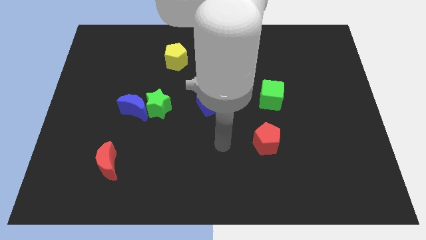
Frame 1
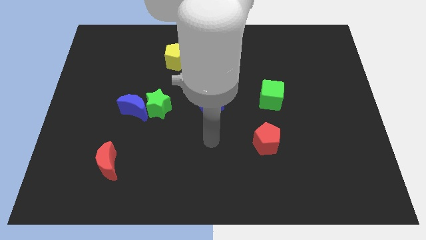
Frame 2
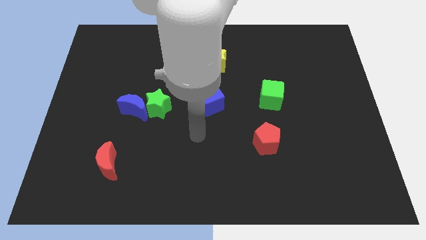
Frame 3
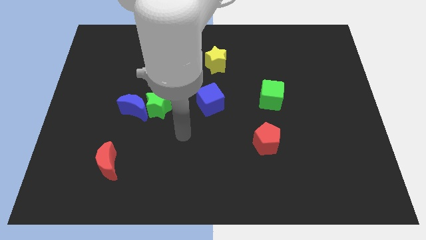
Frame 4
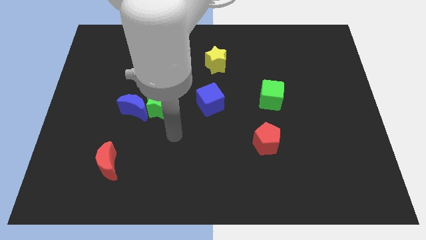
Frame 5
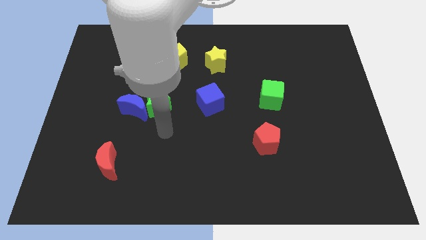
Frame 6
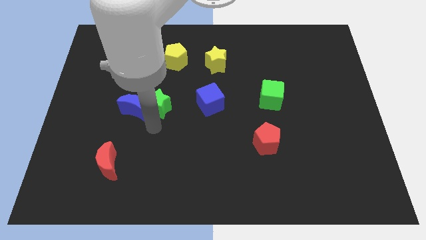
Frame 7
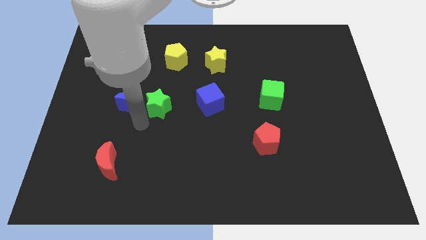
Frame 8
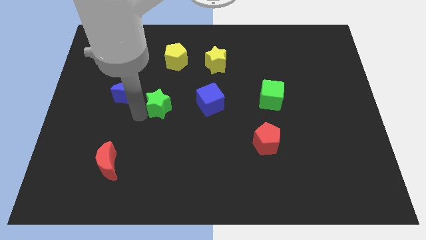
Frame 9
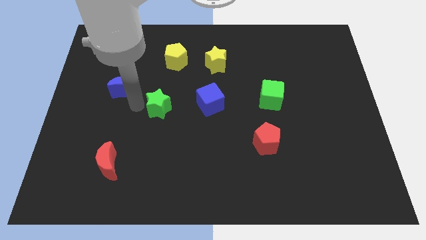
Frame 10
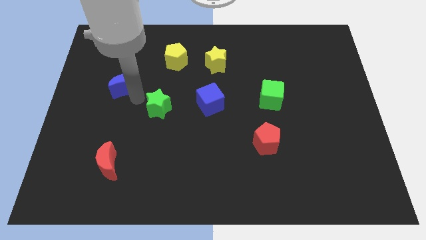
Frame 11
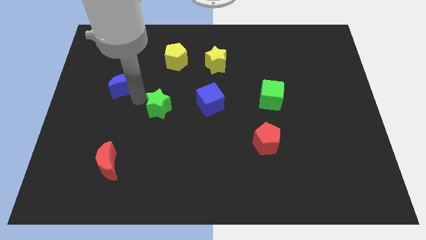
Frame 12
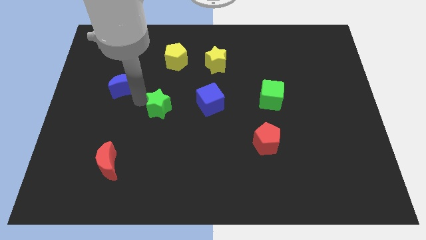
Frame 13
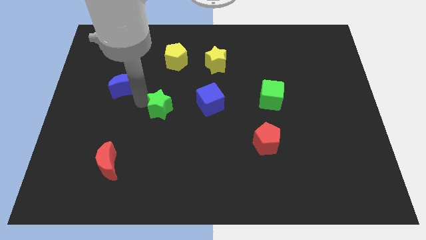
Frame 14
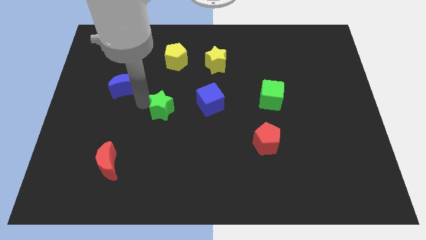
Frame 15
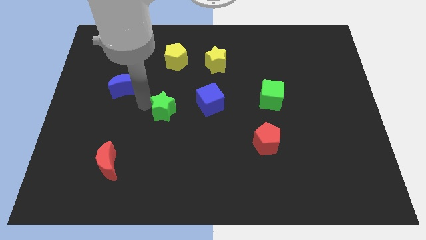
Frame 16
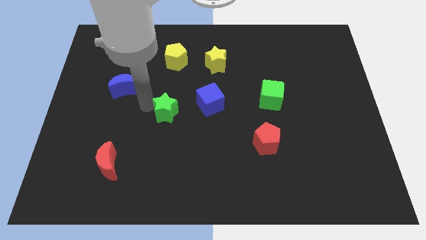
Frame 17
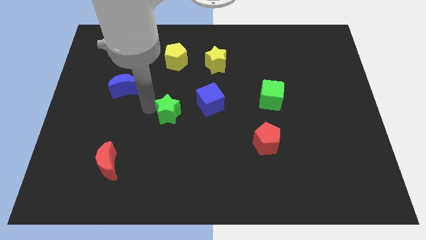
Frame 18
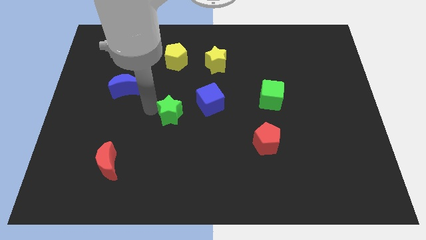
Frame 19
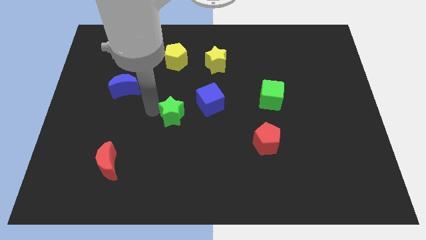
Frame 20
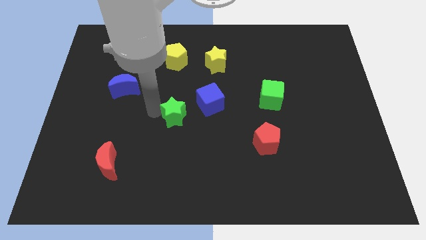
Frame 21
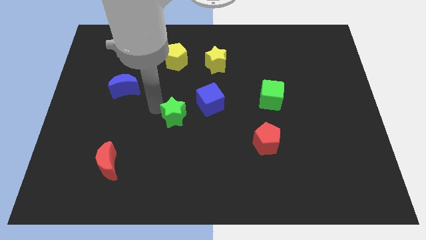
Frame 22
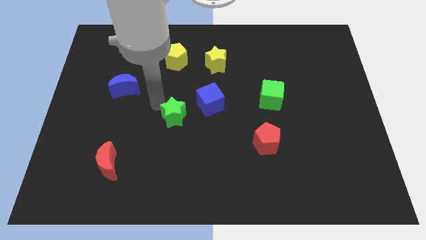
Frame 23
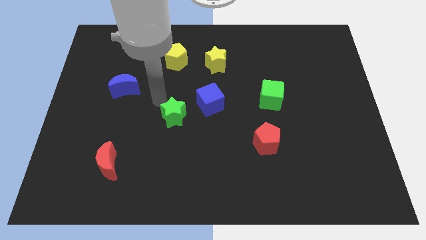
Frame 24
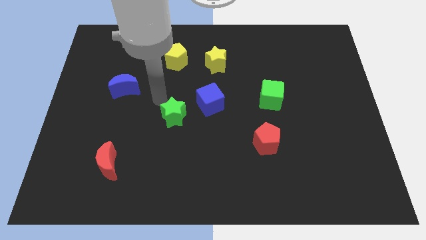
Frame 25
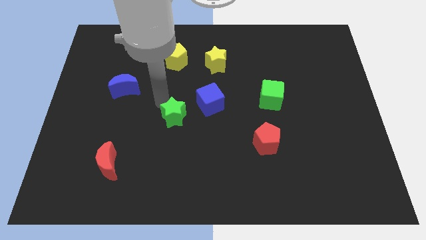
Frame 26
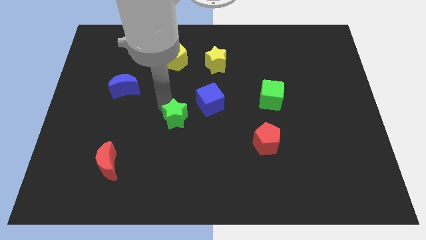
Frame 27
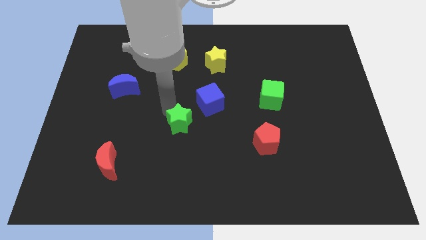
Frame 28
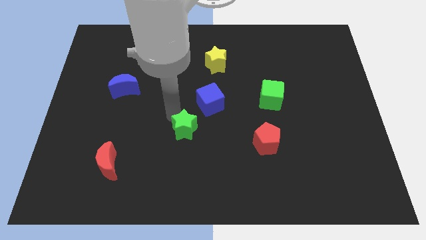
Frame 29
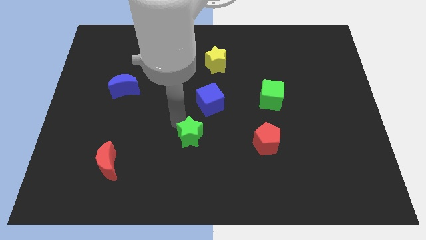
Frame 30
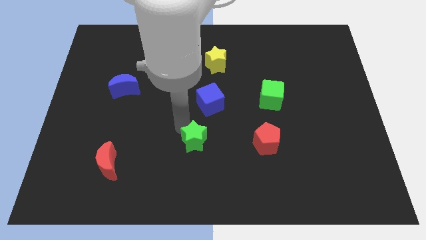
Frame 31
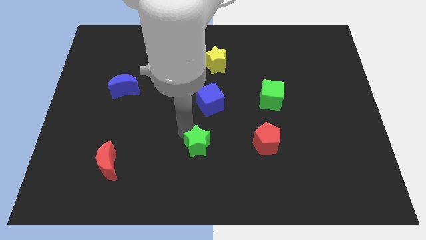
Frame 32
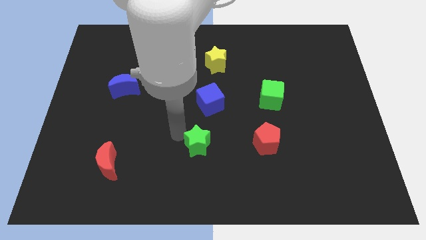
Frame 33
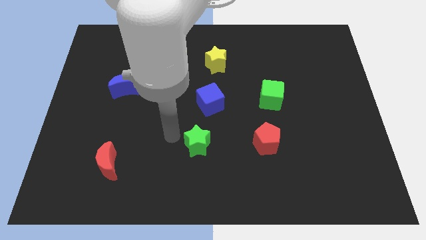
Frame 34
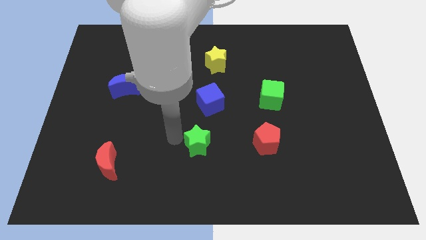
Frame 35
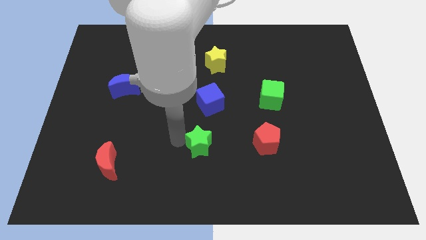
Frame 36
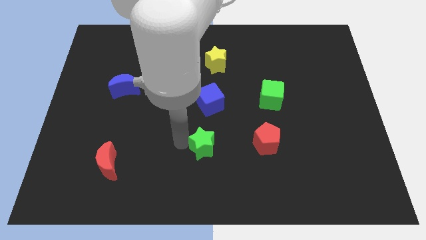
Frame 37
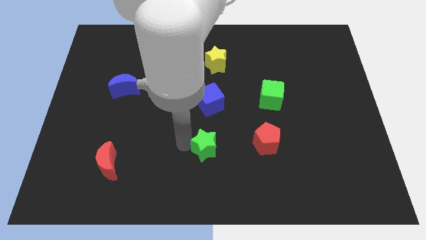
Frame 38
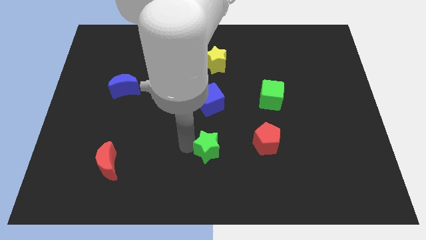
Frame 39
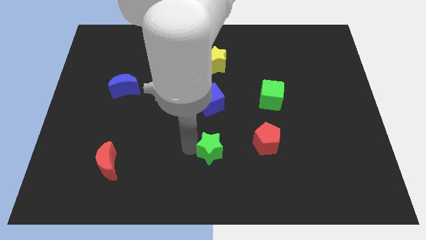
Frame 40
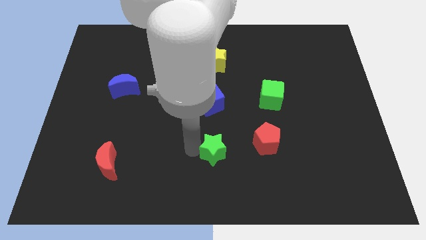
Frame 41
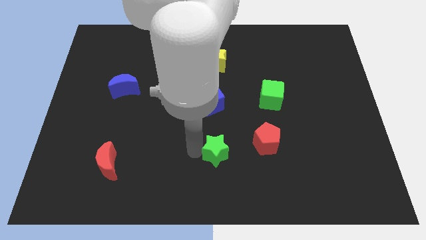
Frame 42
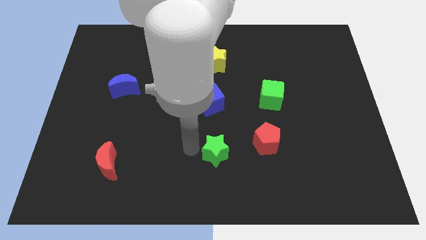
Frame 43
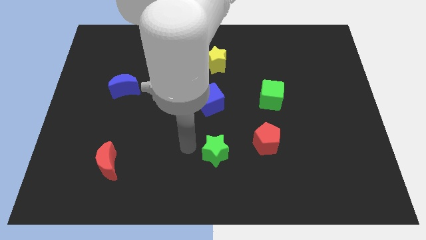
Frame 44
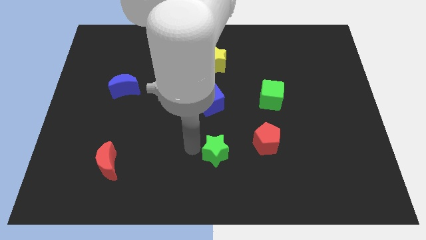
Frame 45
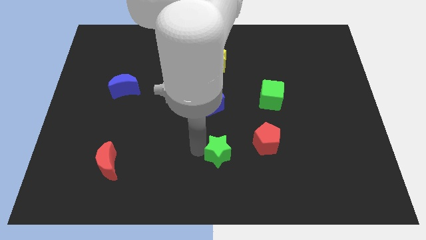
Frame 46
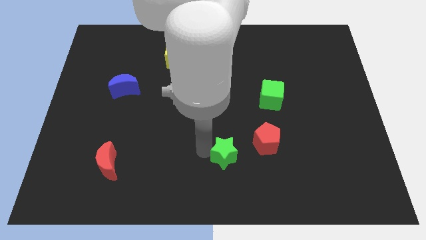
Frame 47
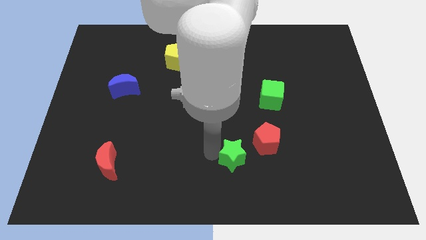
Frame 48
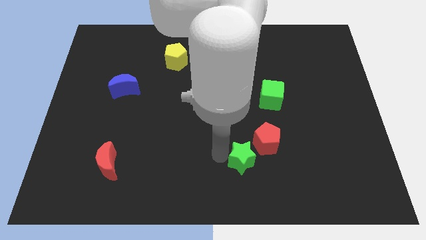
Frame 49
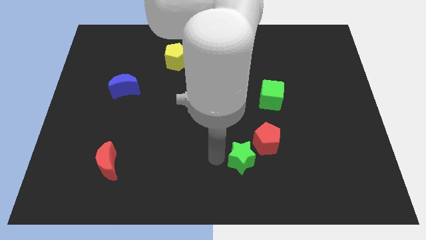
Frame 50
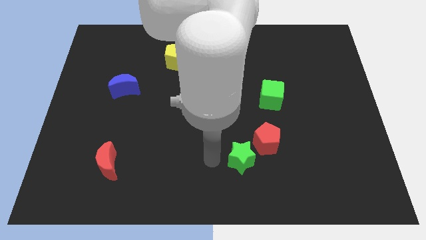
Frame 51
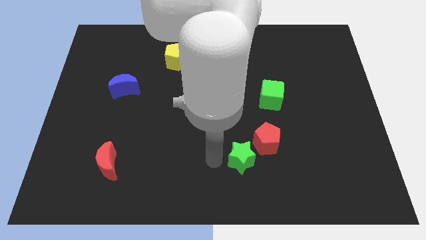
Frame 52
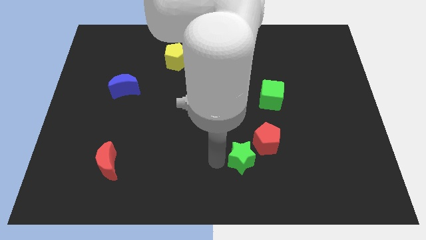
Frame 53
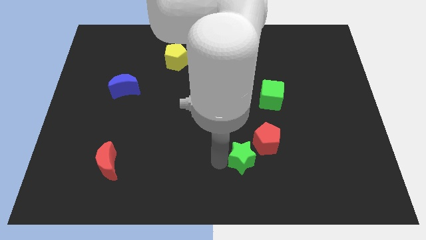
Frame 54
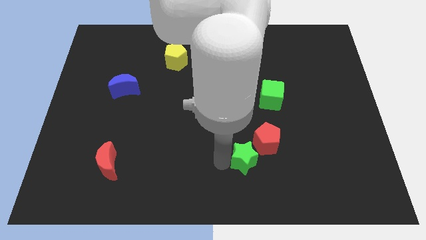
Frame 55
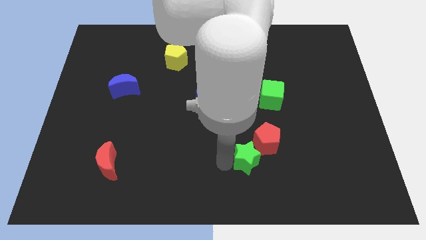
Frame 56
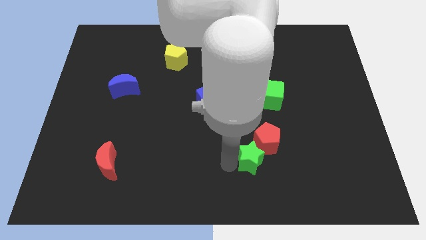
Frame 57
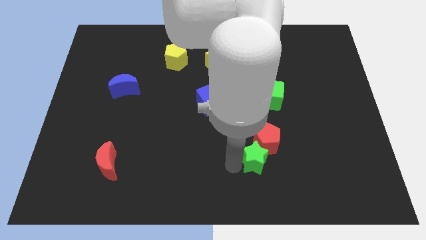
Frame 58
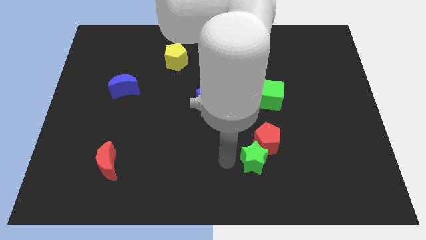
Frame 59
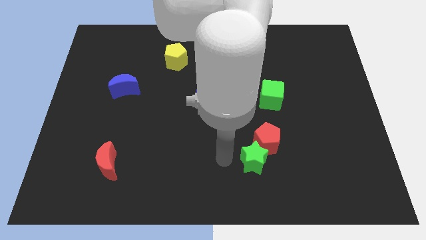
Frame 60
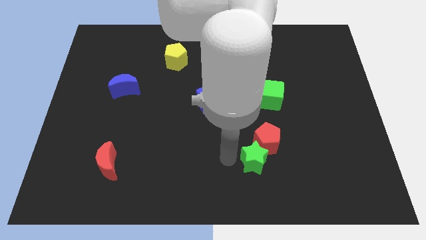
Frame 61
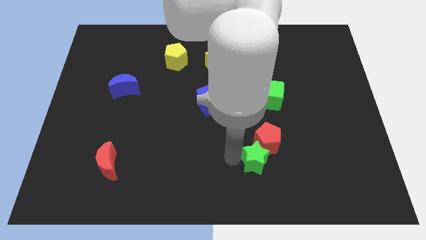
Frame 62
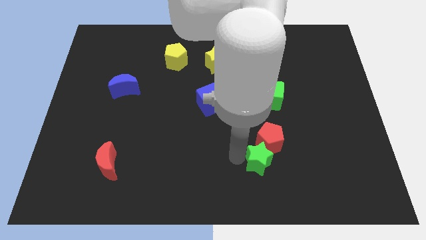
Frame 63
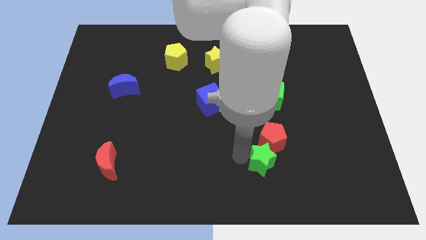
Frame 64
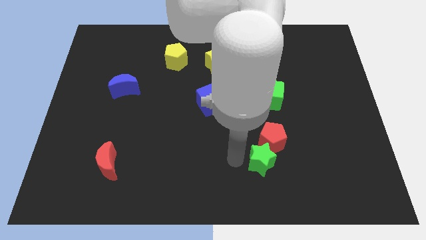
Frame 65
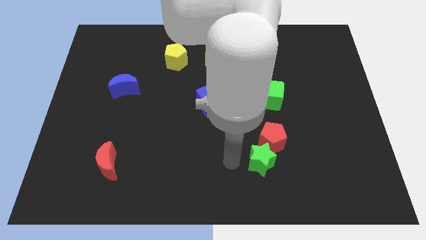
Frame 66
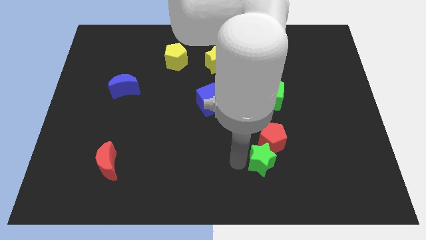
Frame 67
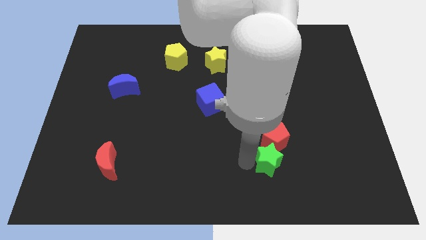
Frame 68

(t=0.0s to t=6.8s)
slide the green star diagonally down and to the right of the red pentagon

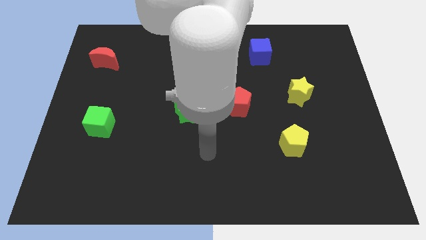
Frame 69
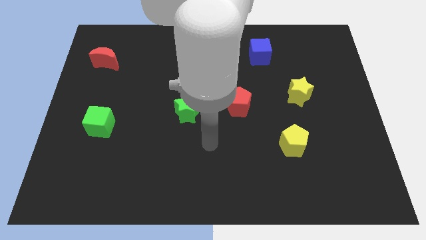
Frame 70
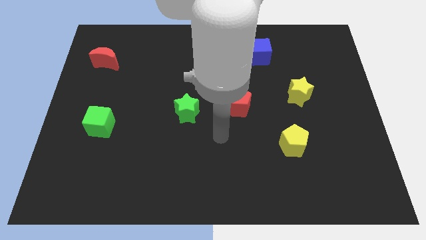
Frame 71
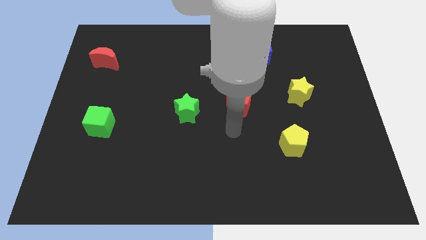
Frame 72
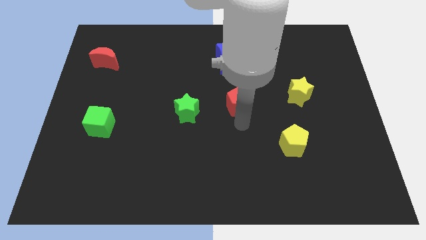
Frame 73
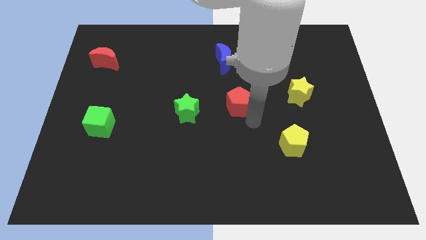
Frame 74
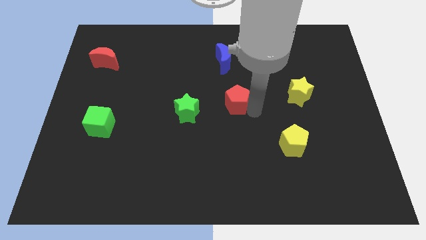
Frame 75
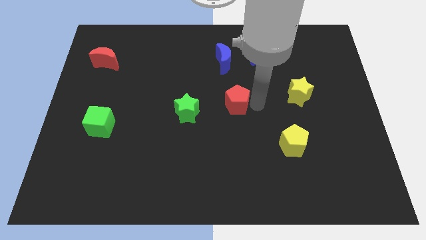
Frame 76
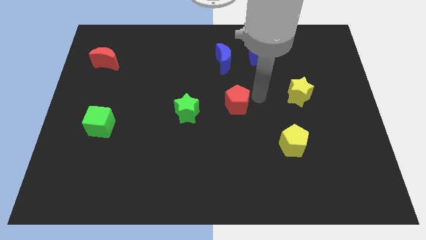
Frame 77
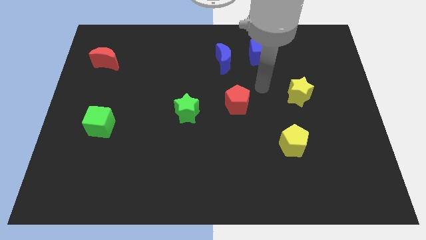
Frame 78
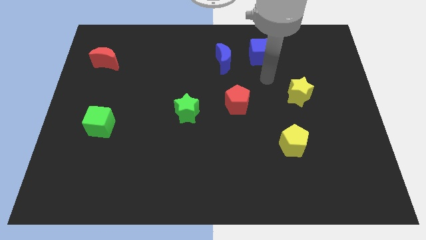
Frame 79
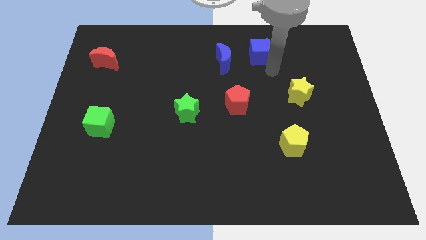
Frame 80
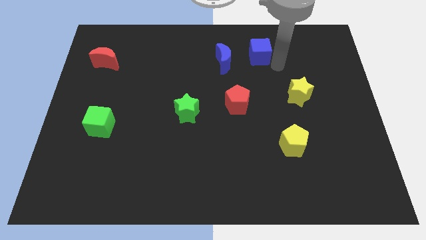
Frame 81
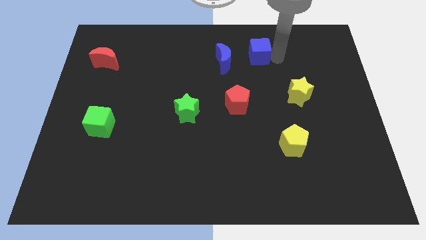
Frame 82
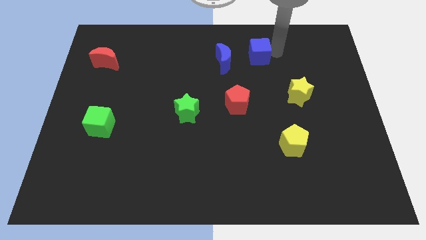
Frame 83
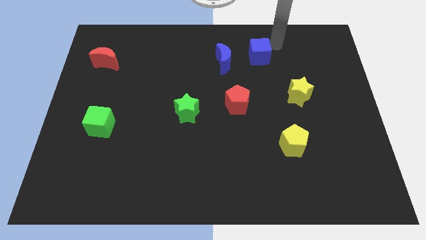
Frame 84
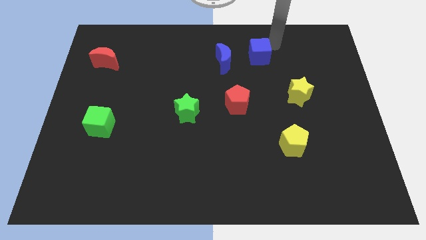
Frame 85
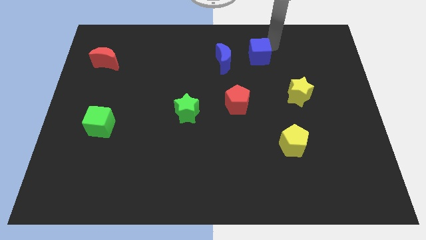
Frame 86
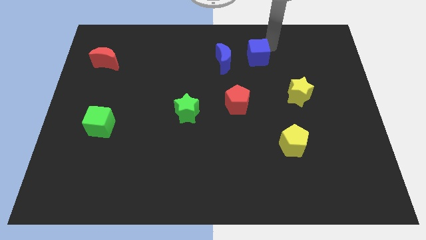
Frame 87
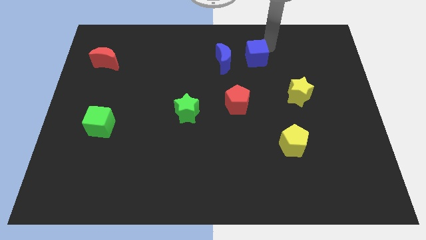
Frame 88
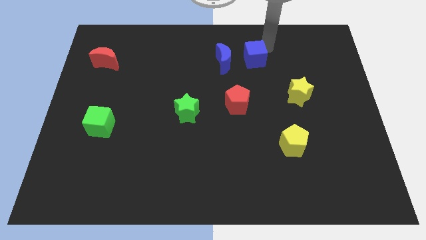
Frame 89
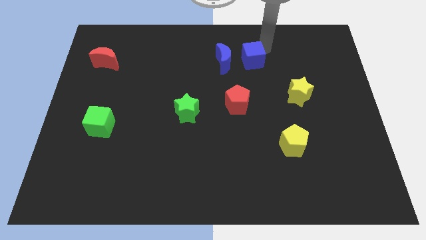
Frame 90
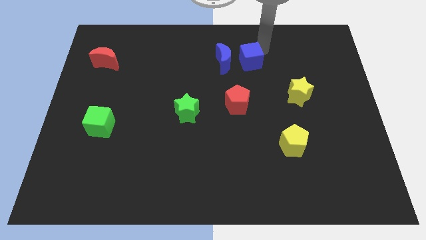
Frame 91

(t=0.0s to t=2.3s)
put the blue cube above the red pentagon
